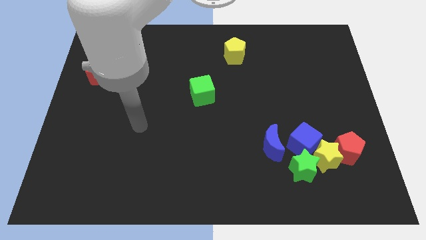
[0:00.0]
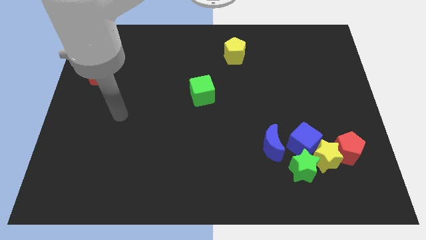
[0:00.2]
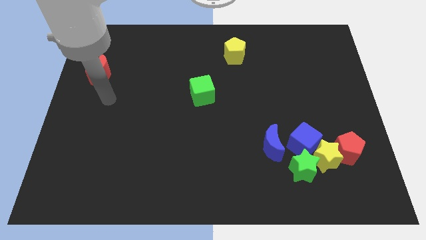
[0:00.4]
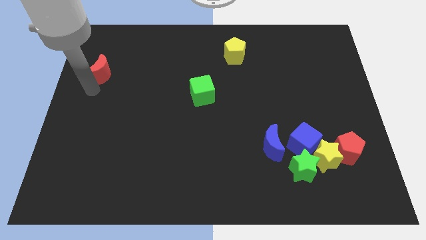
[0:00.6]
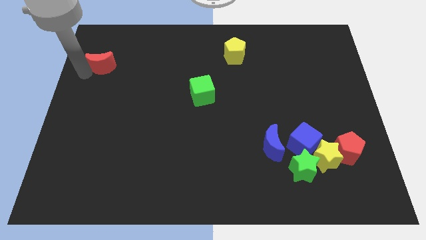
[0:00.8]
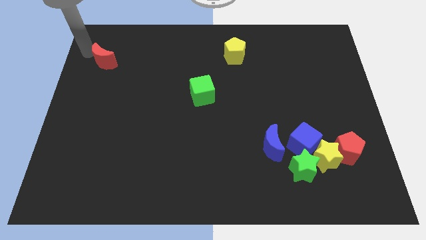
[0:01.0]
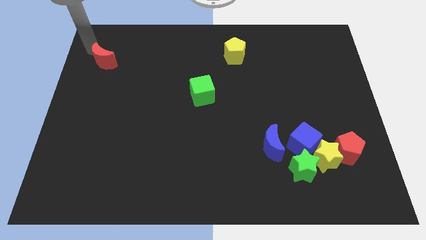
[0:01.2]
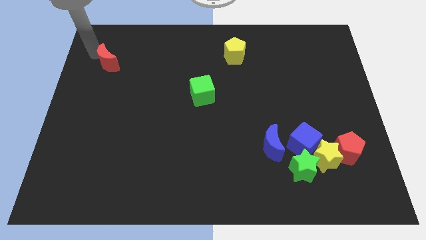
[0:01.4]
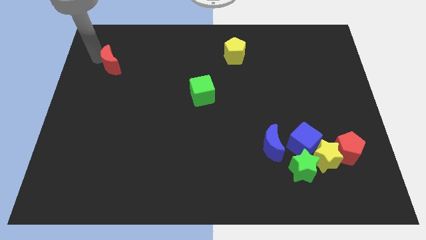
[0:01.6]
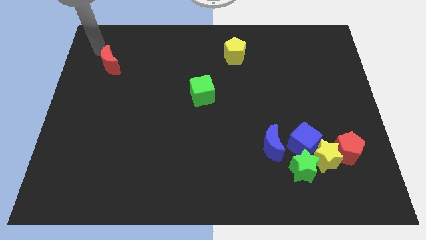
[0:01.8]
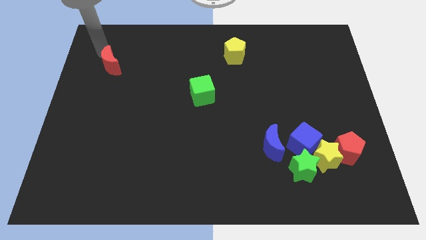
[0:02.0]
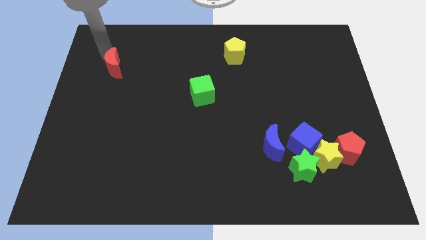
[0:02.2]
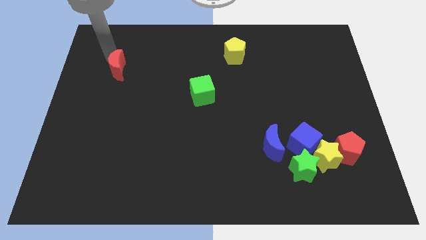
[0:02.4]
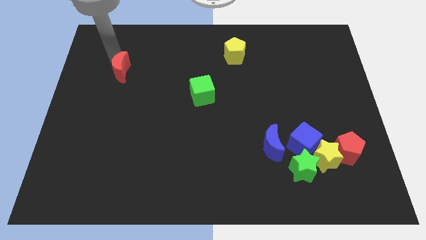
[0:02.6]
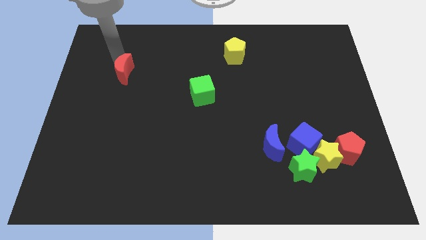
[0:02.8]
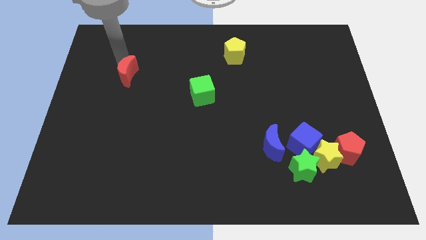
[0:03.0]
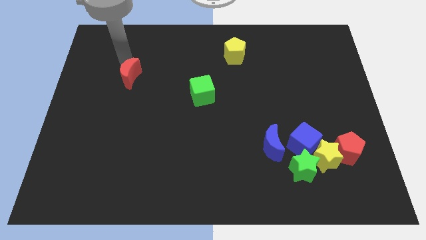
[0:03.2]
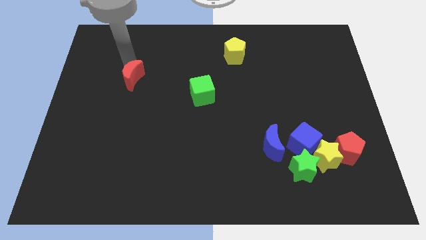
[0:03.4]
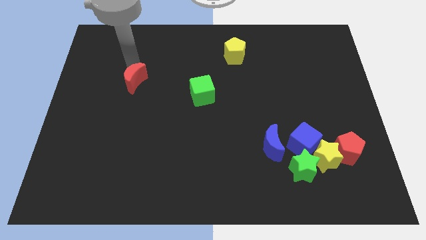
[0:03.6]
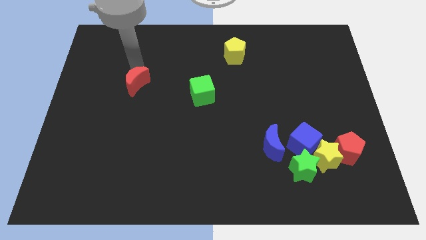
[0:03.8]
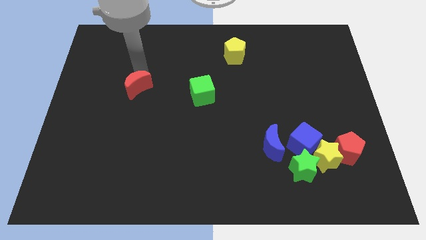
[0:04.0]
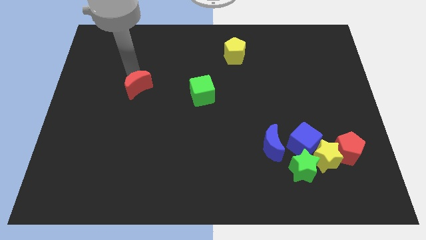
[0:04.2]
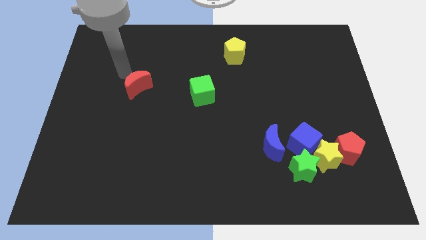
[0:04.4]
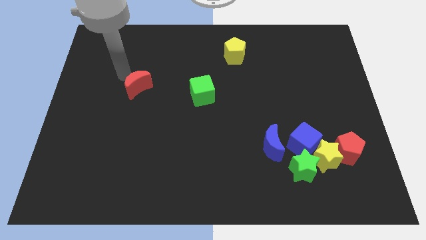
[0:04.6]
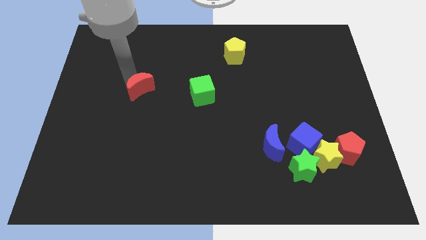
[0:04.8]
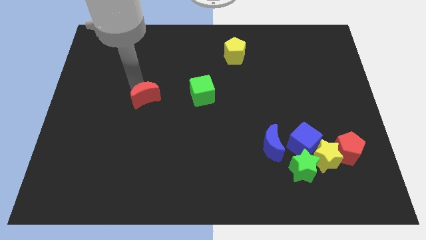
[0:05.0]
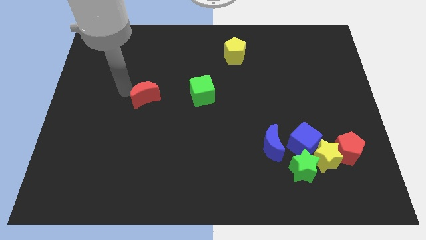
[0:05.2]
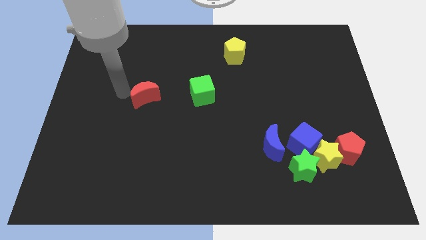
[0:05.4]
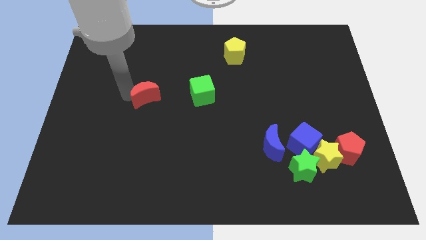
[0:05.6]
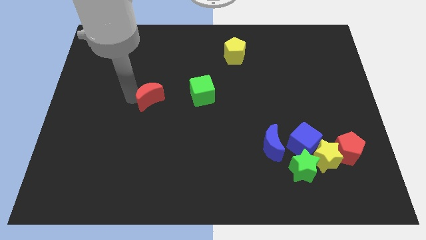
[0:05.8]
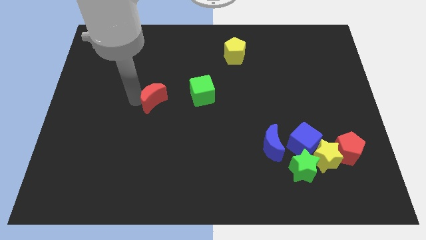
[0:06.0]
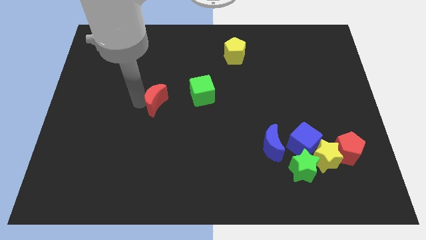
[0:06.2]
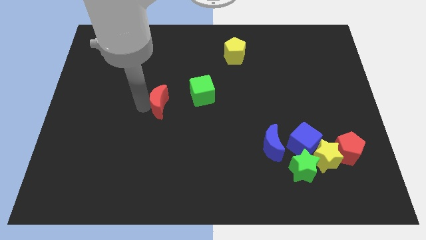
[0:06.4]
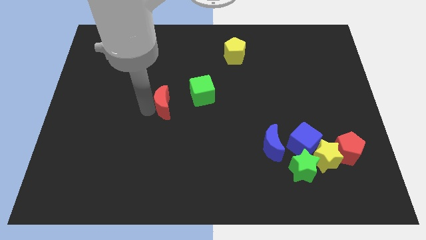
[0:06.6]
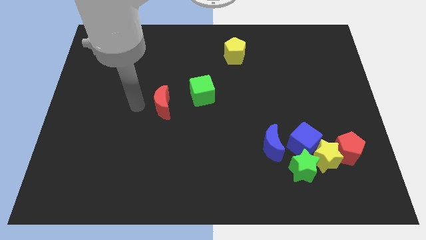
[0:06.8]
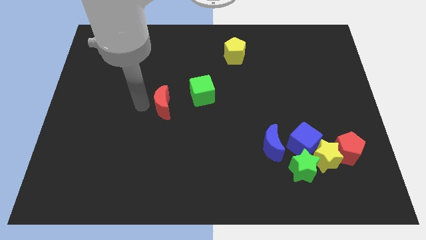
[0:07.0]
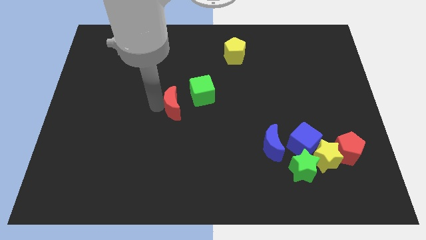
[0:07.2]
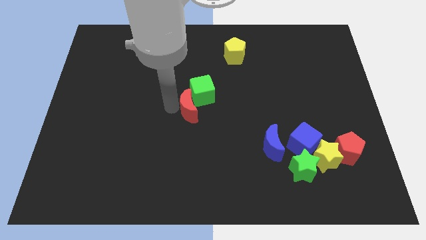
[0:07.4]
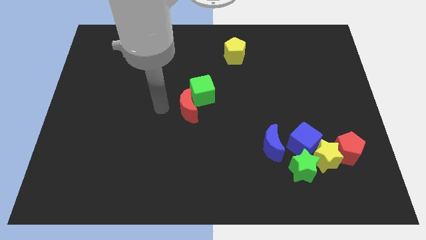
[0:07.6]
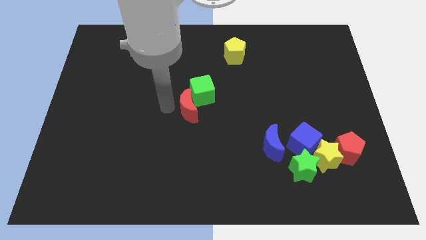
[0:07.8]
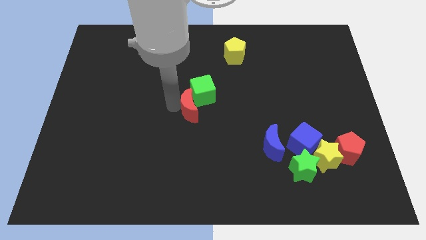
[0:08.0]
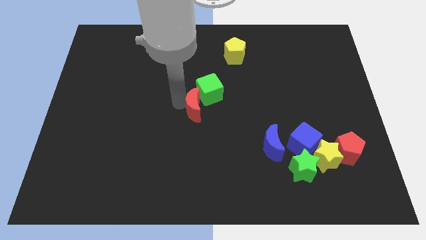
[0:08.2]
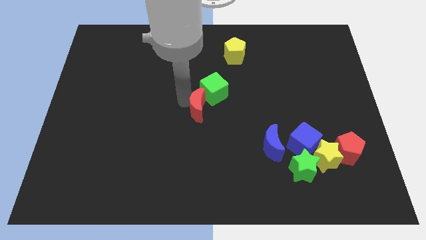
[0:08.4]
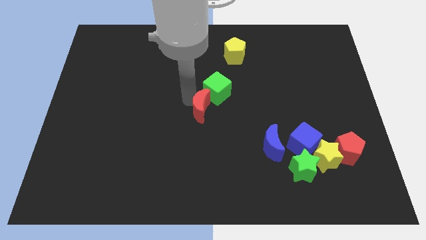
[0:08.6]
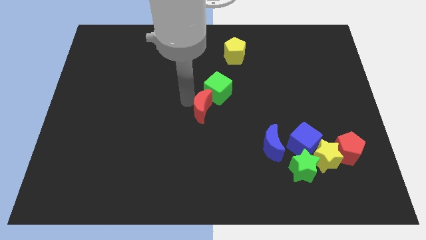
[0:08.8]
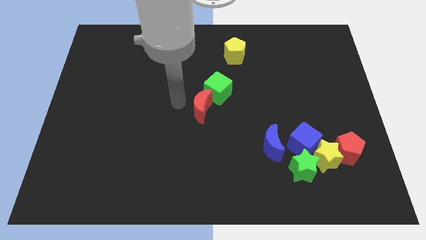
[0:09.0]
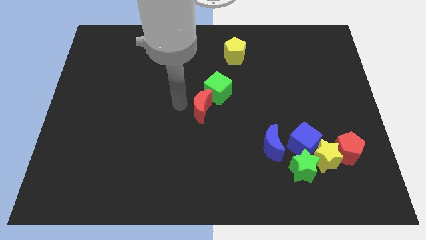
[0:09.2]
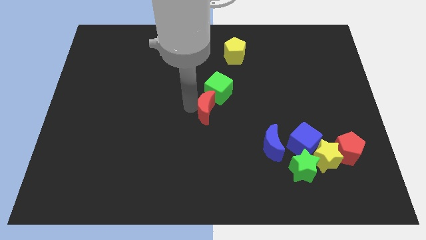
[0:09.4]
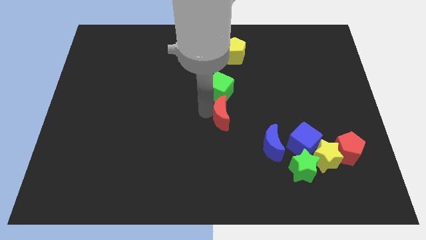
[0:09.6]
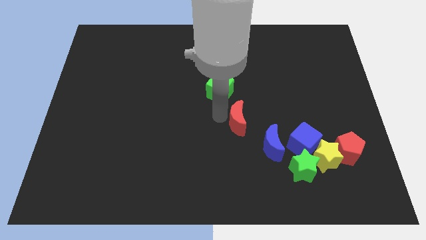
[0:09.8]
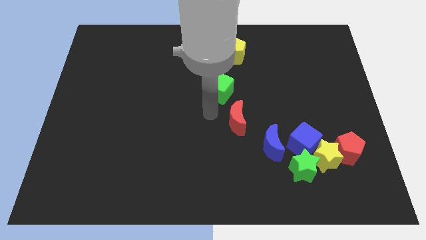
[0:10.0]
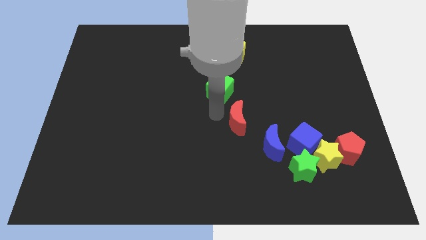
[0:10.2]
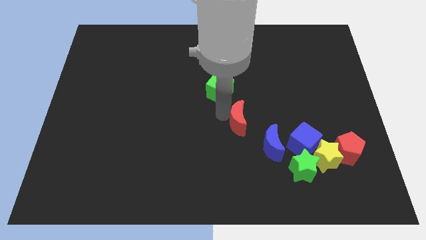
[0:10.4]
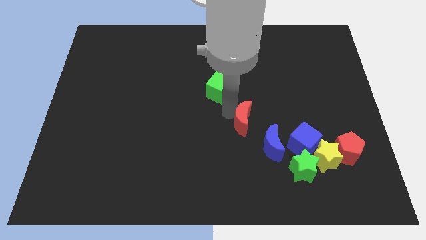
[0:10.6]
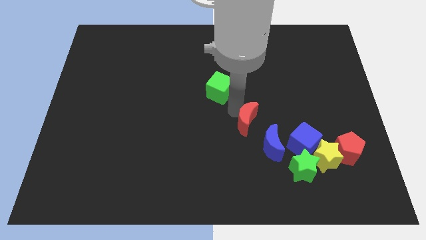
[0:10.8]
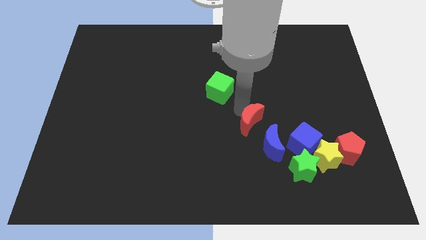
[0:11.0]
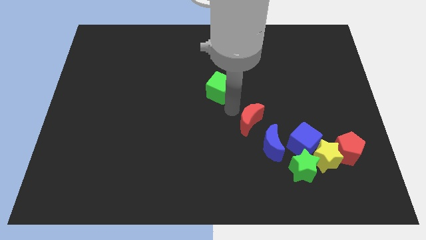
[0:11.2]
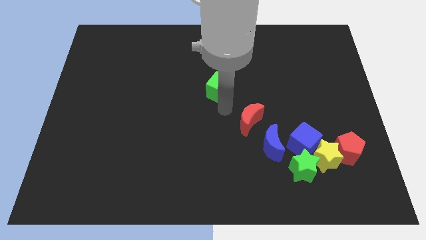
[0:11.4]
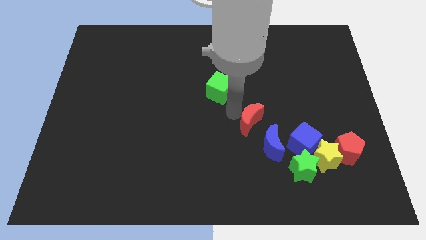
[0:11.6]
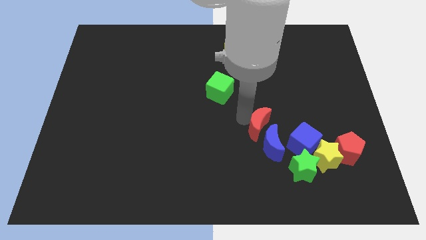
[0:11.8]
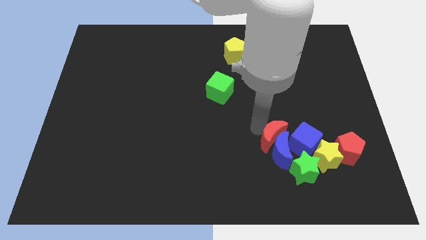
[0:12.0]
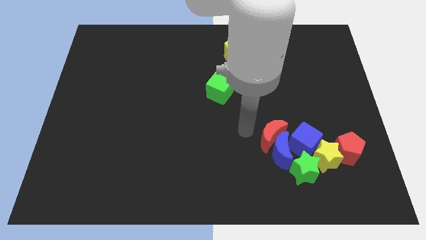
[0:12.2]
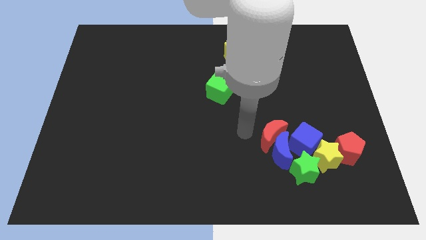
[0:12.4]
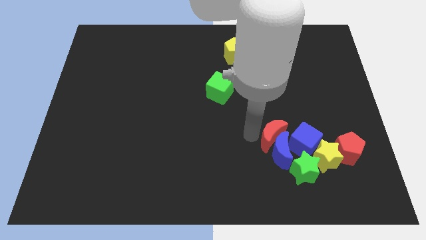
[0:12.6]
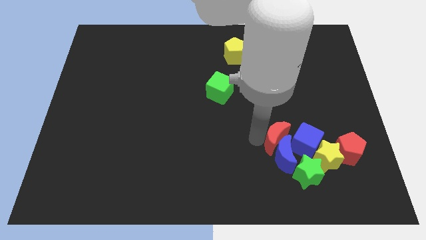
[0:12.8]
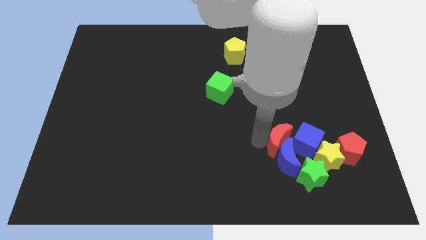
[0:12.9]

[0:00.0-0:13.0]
put the red moon next to the blue cube

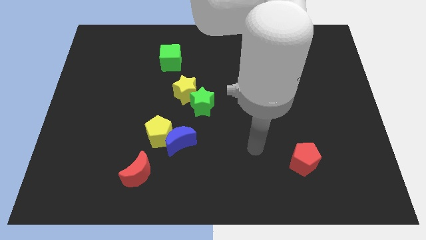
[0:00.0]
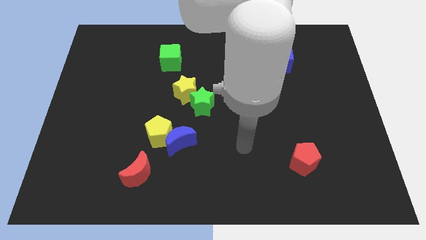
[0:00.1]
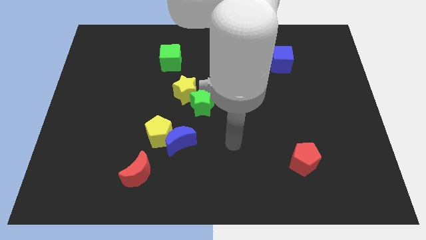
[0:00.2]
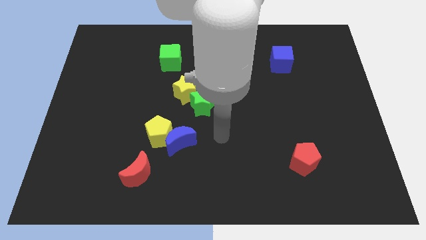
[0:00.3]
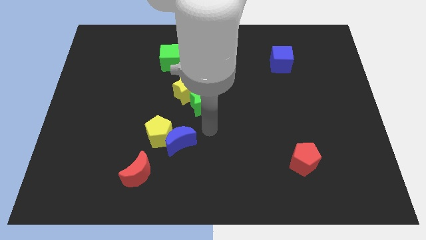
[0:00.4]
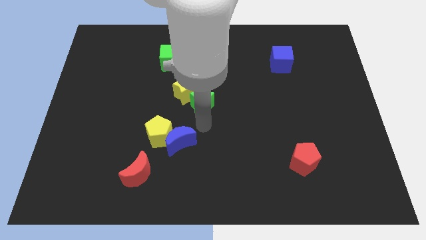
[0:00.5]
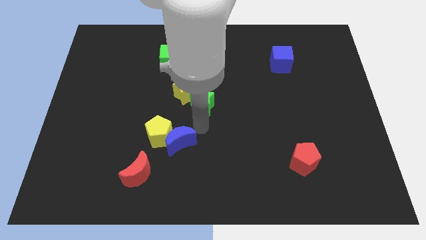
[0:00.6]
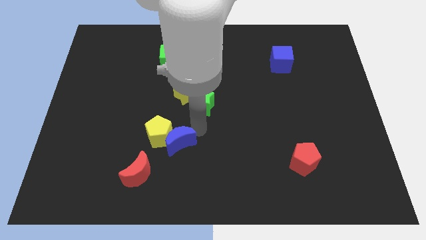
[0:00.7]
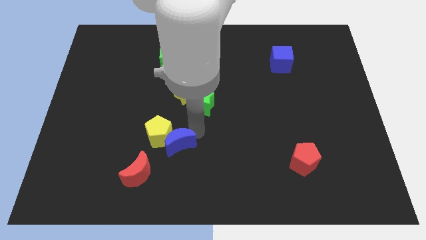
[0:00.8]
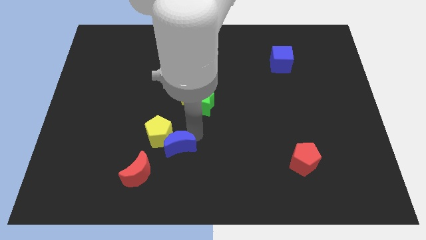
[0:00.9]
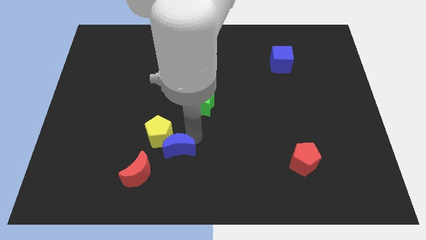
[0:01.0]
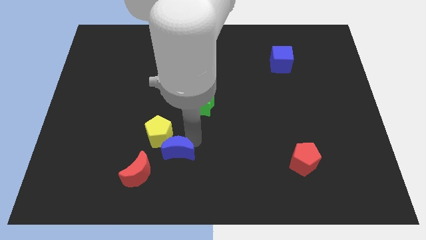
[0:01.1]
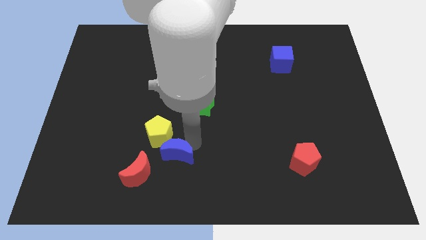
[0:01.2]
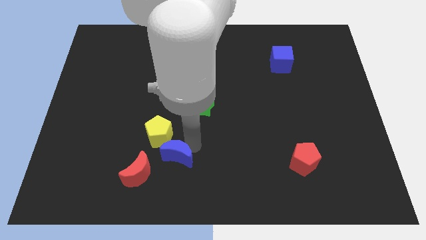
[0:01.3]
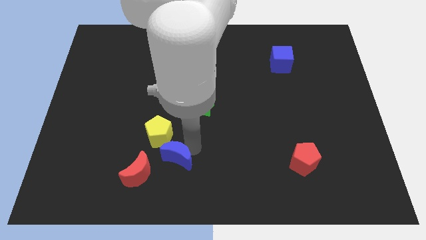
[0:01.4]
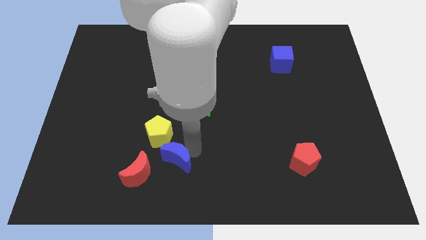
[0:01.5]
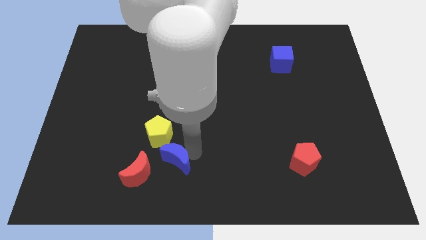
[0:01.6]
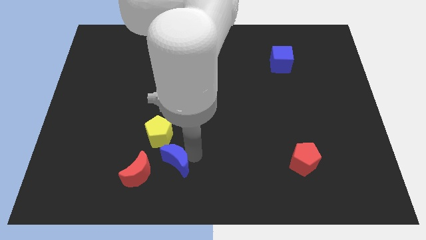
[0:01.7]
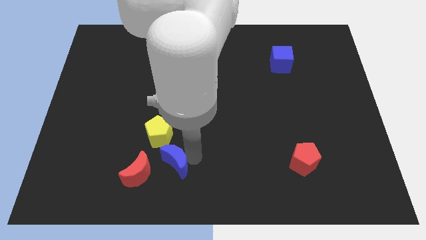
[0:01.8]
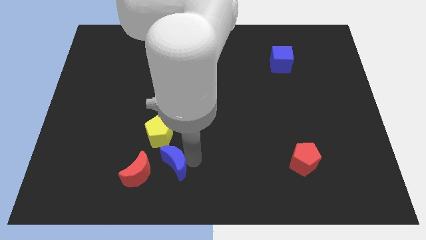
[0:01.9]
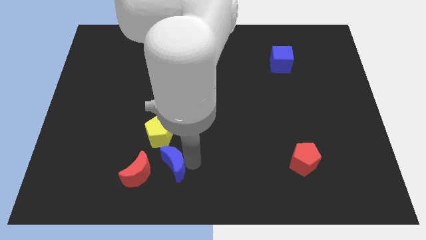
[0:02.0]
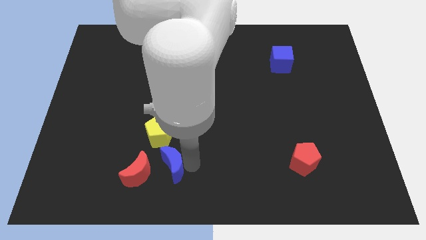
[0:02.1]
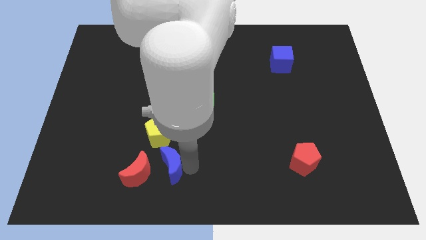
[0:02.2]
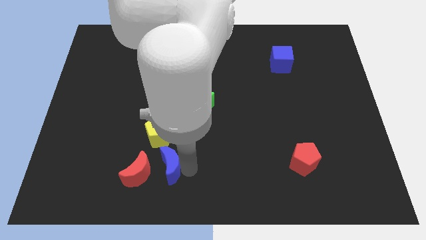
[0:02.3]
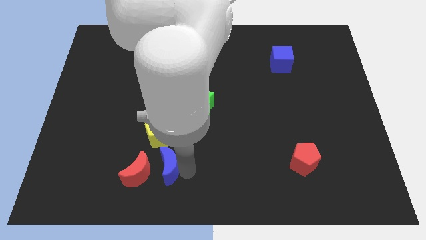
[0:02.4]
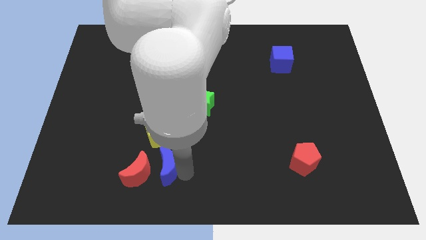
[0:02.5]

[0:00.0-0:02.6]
slide the blue moon towards the red moon
